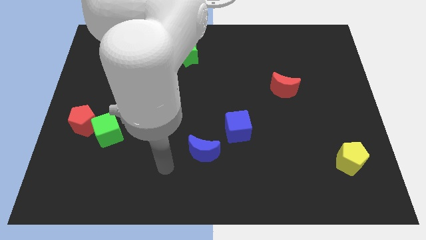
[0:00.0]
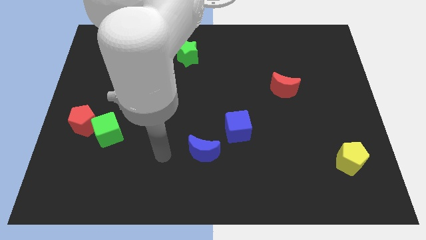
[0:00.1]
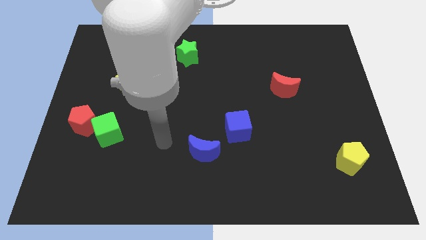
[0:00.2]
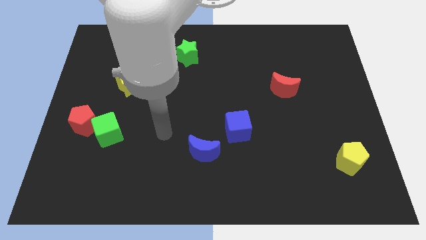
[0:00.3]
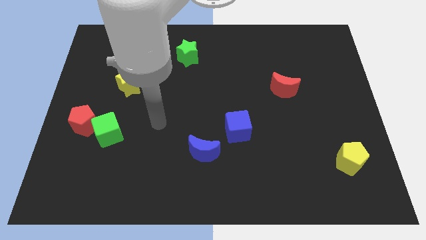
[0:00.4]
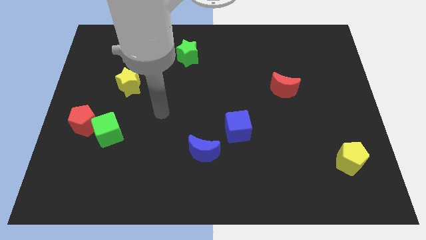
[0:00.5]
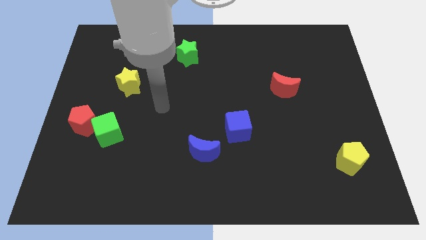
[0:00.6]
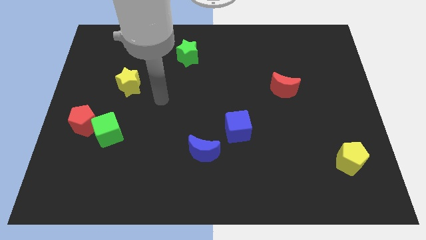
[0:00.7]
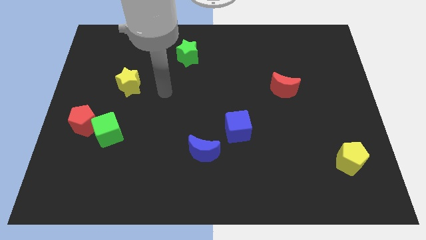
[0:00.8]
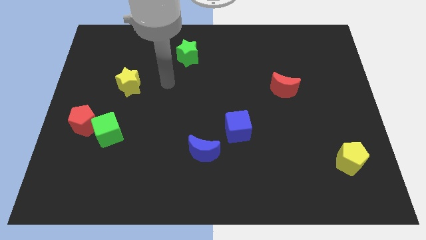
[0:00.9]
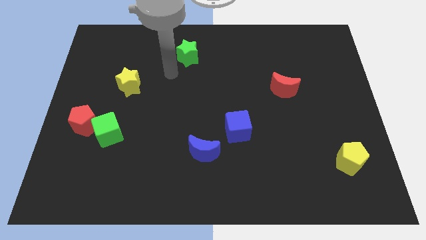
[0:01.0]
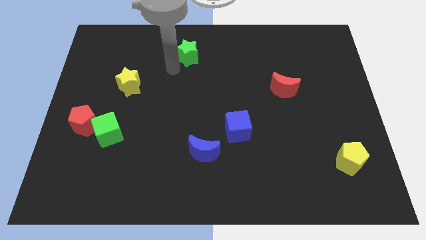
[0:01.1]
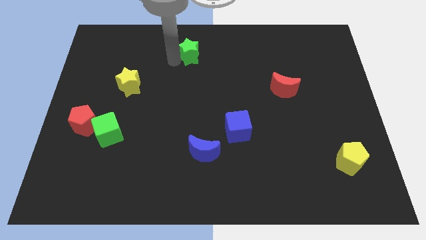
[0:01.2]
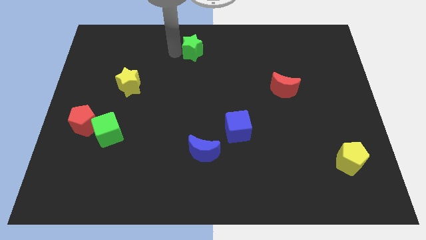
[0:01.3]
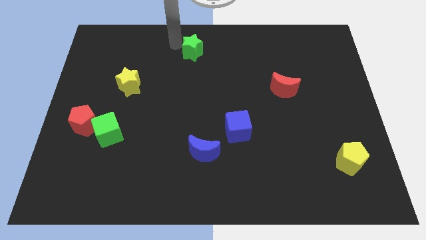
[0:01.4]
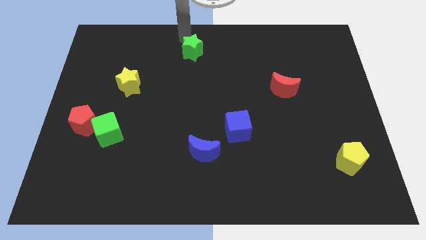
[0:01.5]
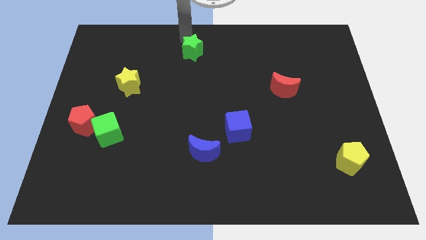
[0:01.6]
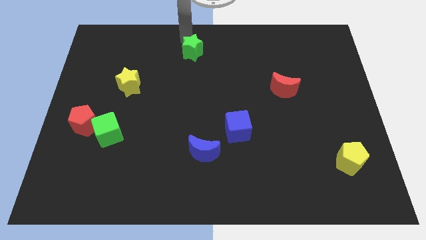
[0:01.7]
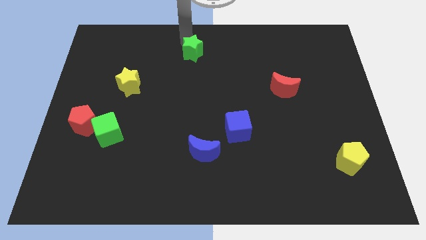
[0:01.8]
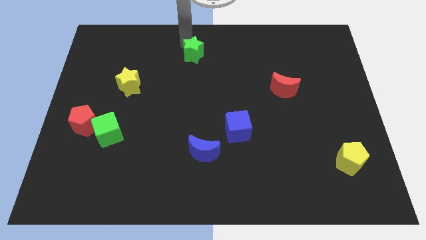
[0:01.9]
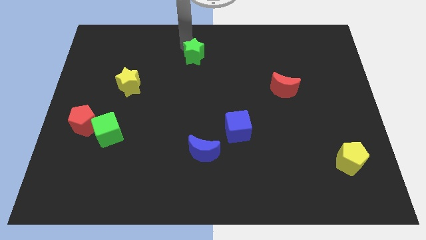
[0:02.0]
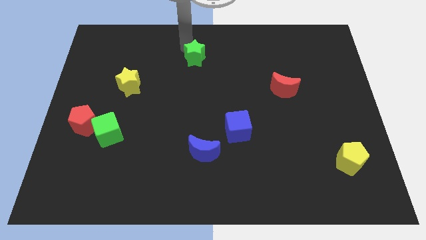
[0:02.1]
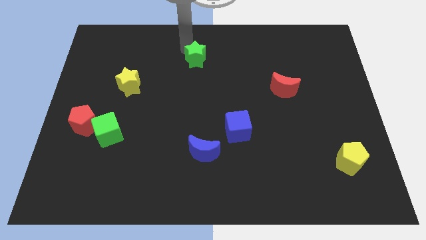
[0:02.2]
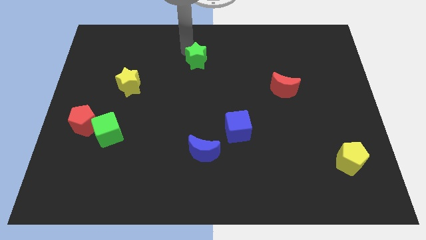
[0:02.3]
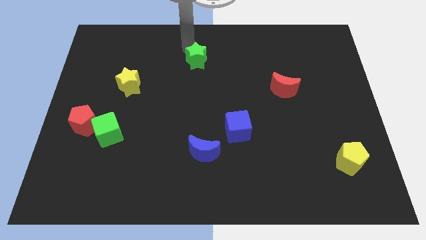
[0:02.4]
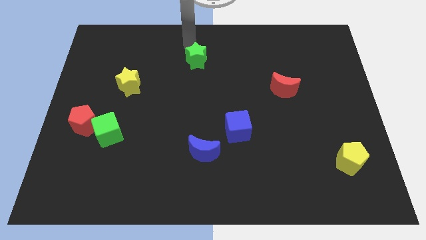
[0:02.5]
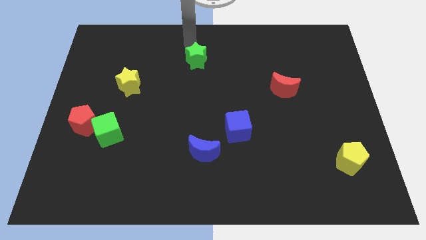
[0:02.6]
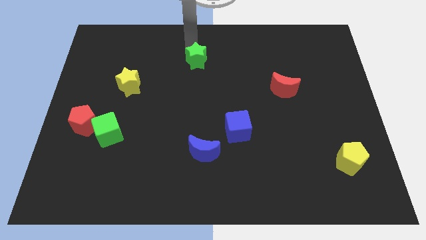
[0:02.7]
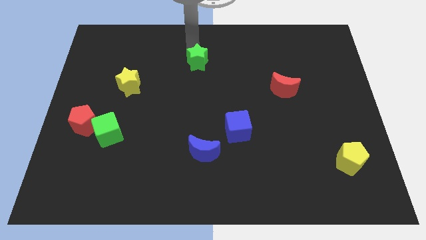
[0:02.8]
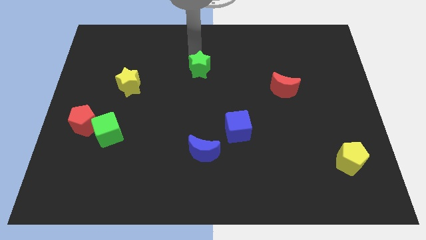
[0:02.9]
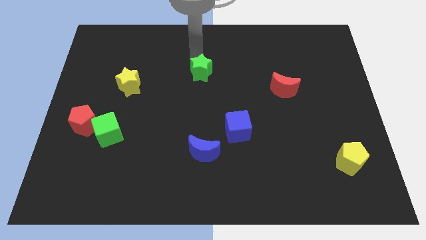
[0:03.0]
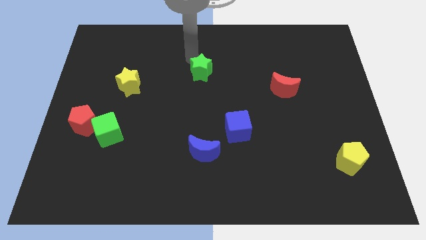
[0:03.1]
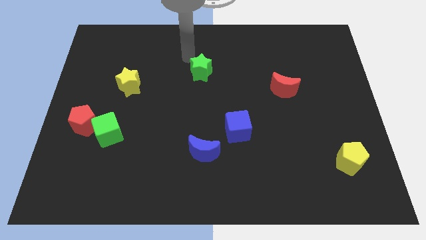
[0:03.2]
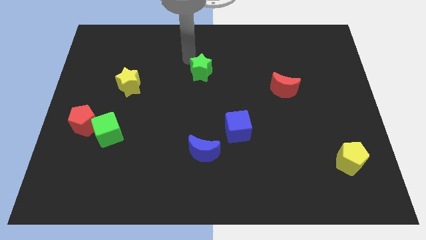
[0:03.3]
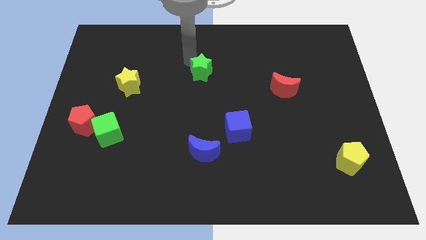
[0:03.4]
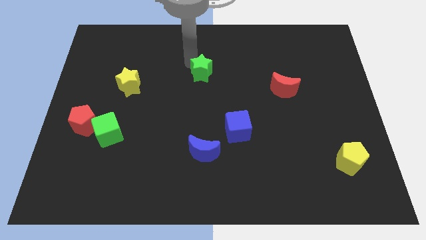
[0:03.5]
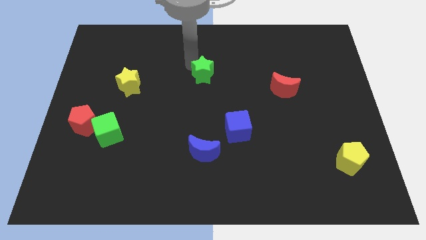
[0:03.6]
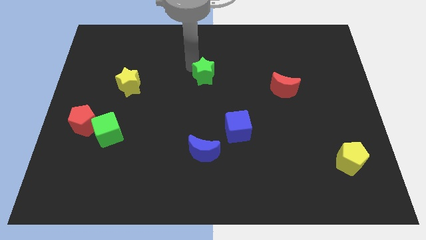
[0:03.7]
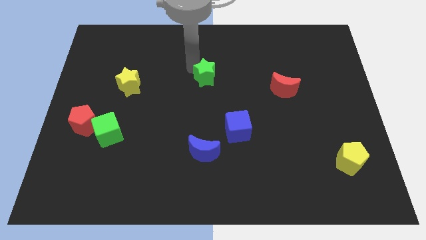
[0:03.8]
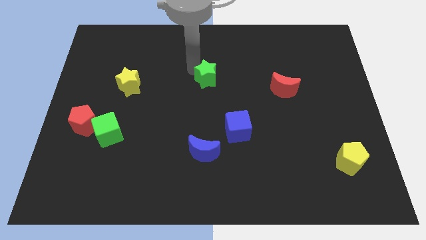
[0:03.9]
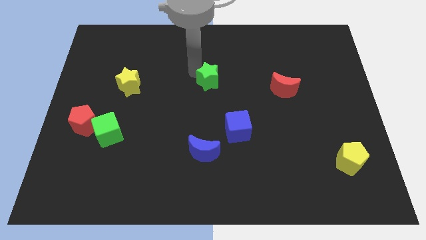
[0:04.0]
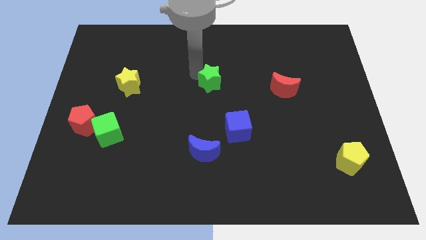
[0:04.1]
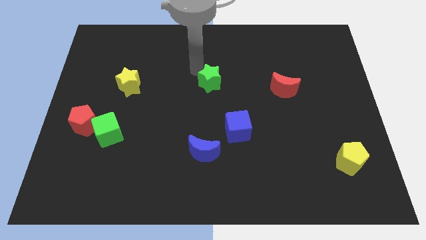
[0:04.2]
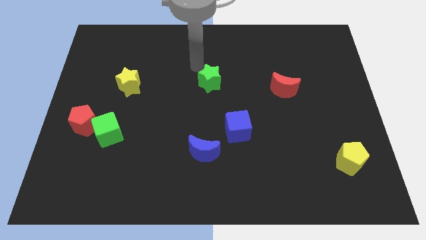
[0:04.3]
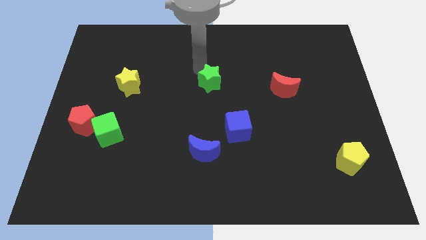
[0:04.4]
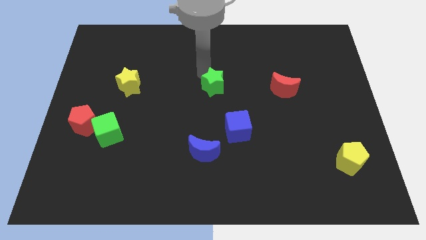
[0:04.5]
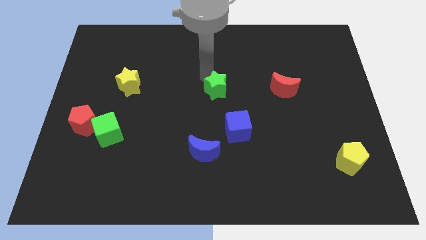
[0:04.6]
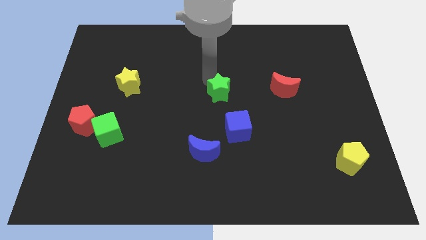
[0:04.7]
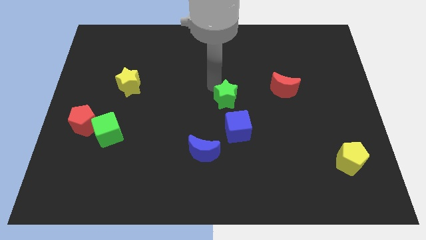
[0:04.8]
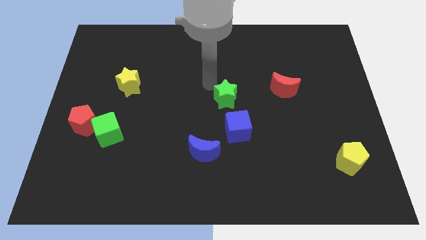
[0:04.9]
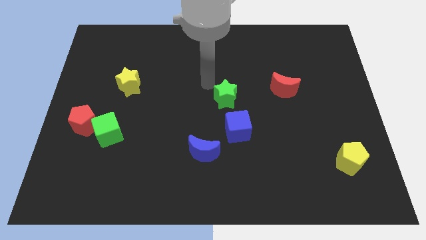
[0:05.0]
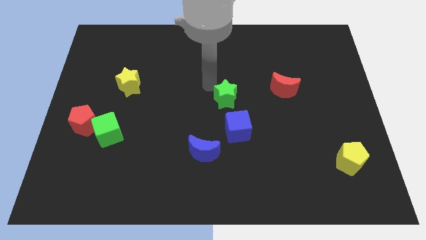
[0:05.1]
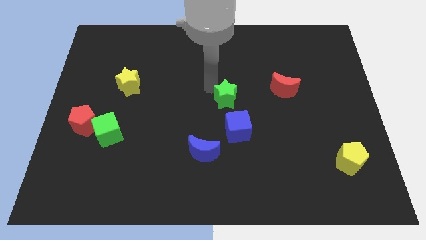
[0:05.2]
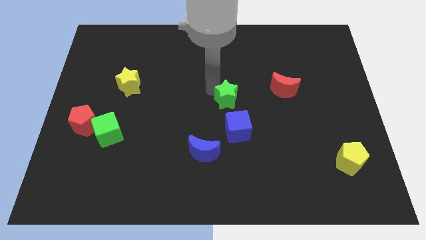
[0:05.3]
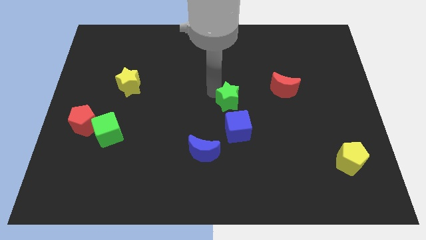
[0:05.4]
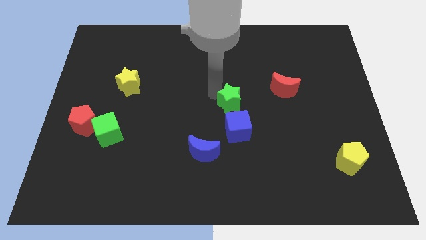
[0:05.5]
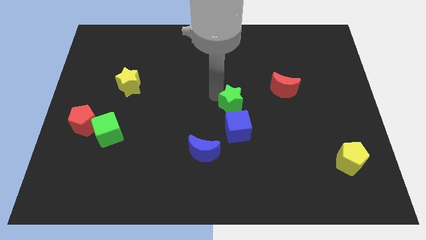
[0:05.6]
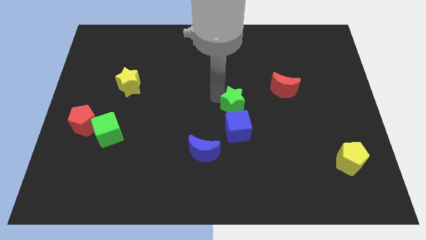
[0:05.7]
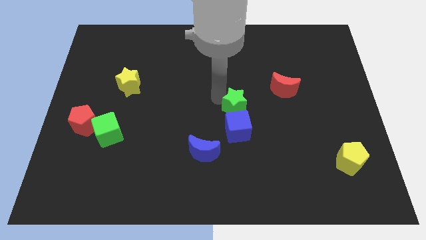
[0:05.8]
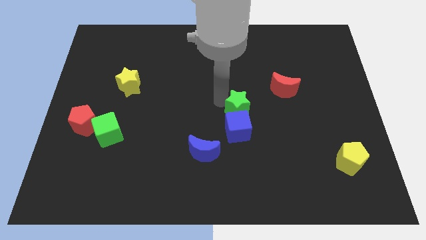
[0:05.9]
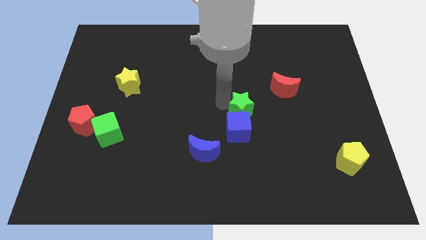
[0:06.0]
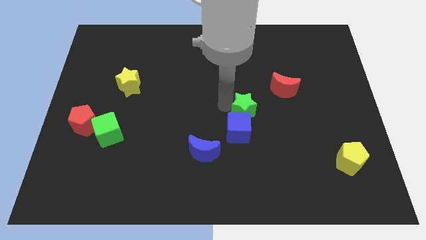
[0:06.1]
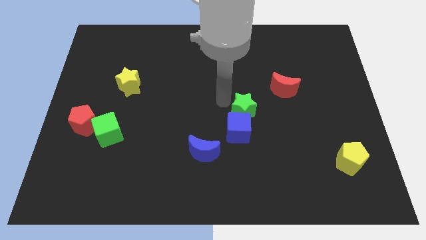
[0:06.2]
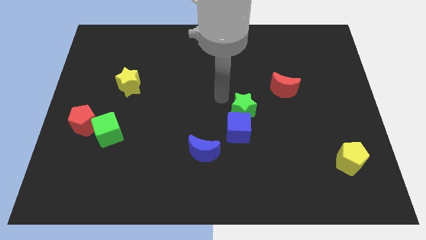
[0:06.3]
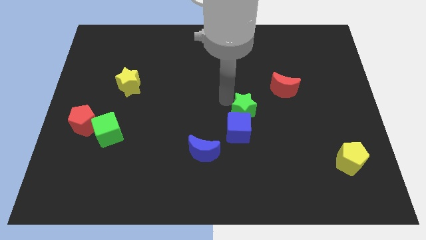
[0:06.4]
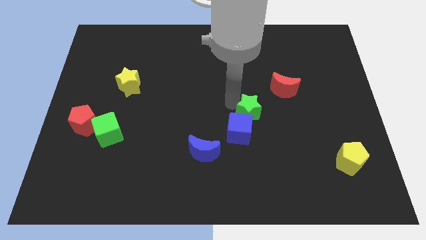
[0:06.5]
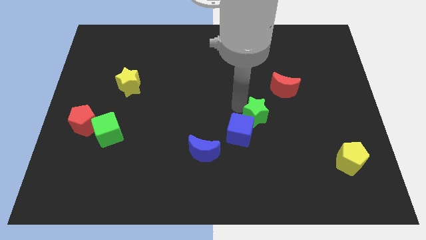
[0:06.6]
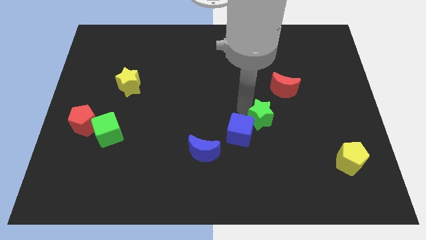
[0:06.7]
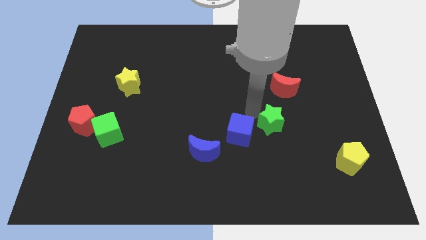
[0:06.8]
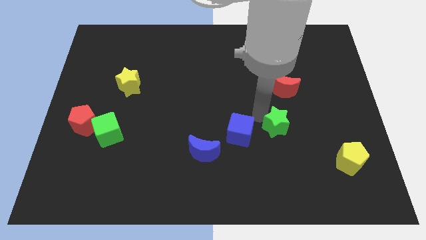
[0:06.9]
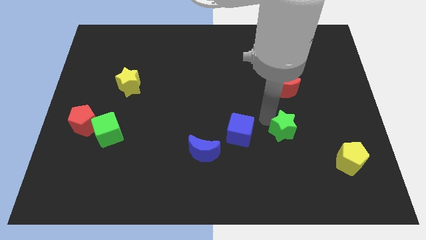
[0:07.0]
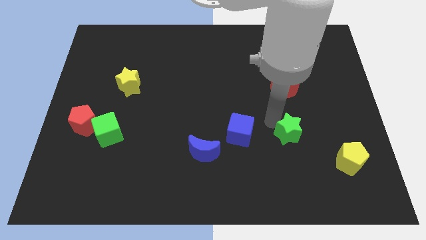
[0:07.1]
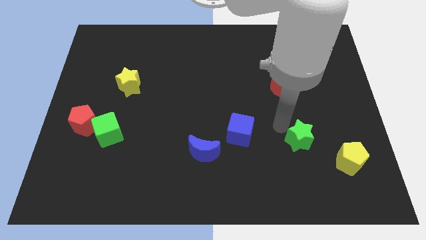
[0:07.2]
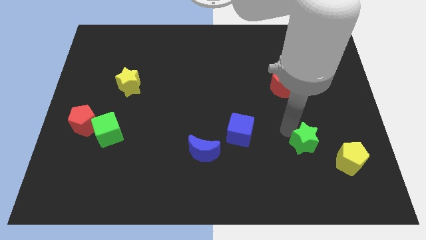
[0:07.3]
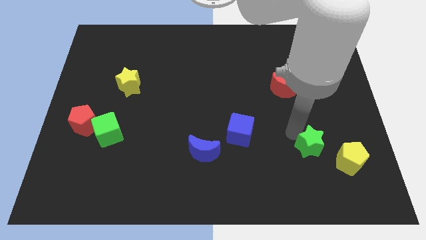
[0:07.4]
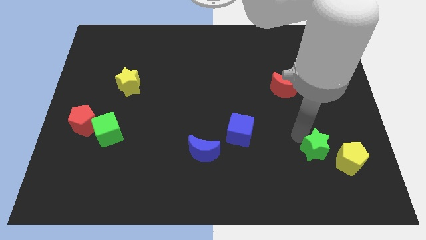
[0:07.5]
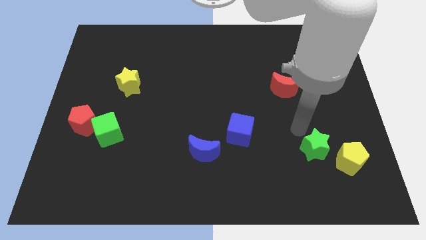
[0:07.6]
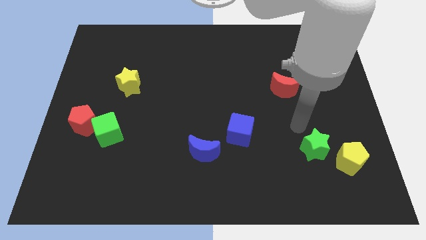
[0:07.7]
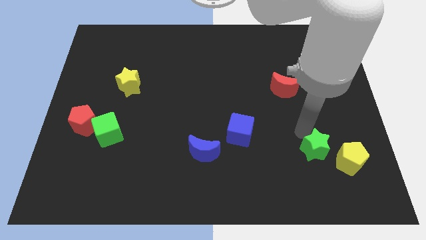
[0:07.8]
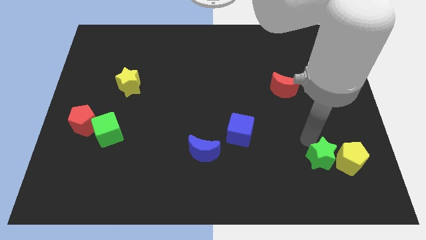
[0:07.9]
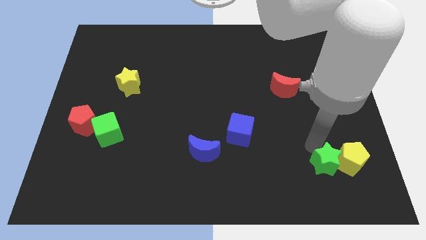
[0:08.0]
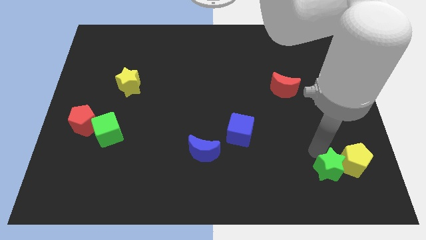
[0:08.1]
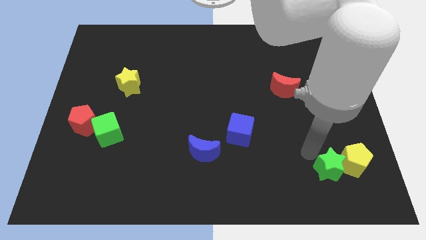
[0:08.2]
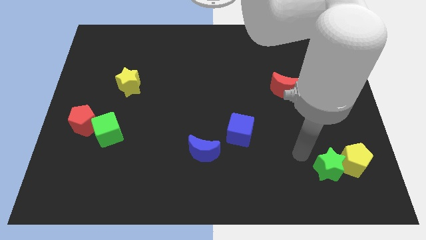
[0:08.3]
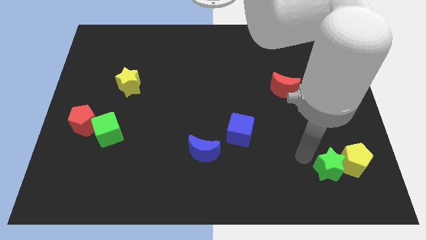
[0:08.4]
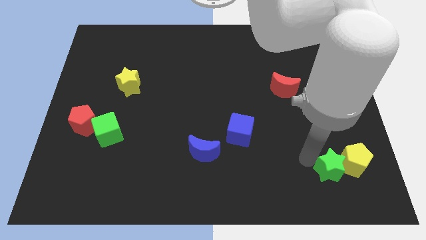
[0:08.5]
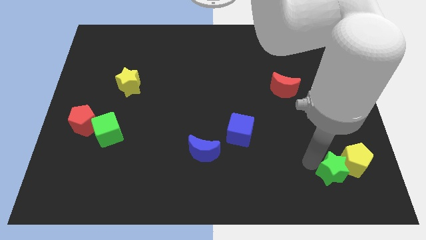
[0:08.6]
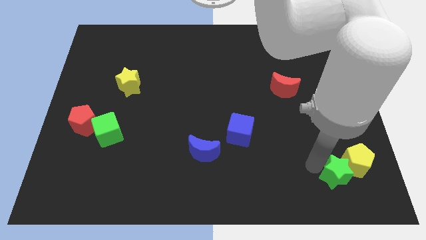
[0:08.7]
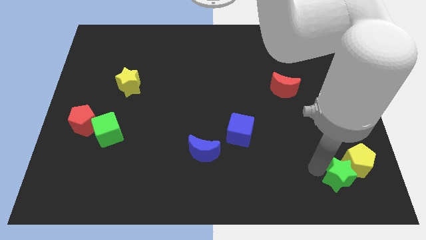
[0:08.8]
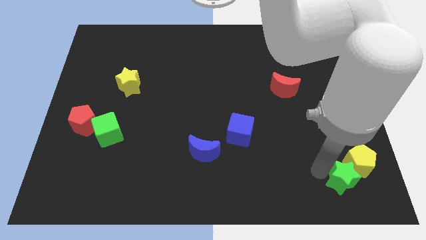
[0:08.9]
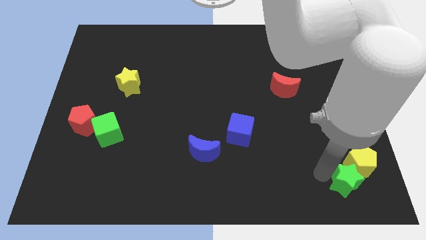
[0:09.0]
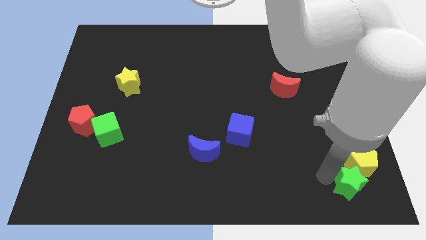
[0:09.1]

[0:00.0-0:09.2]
push the green star to the lower right corner
